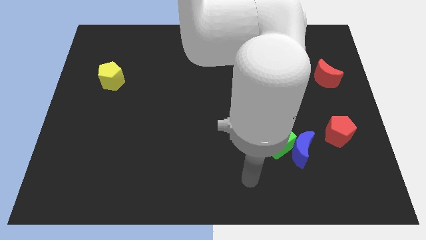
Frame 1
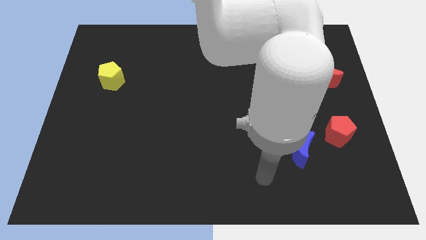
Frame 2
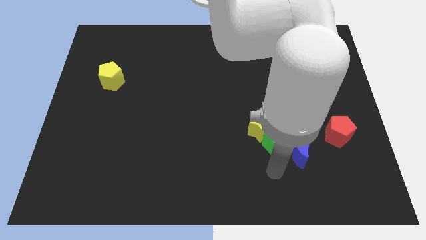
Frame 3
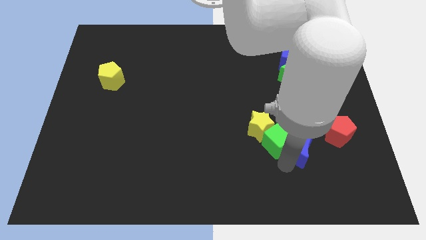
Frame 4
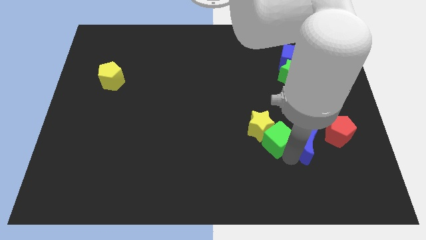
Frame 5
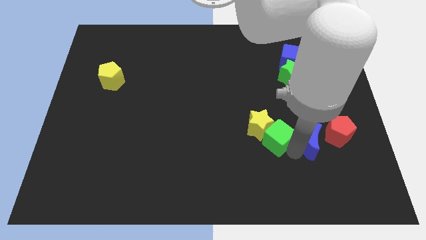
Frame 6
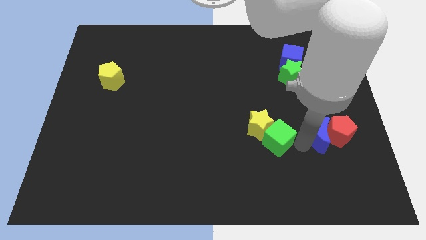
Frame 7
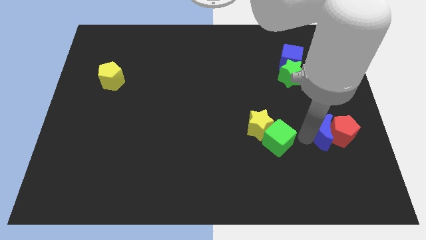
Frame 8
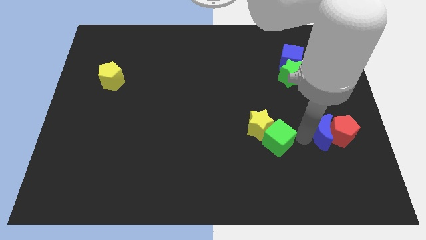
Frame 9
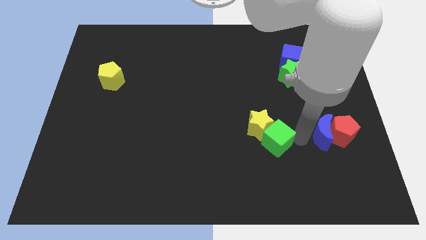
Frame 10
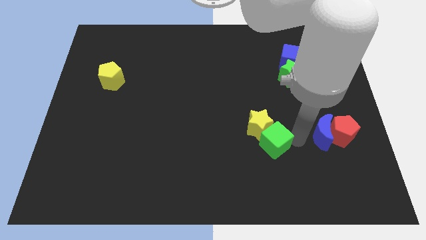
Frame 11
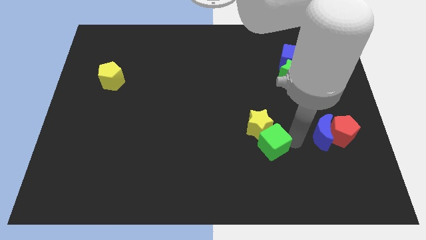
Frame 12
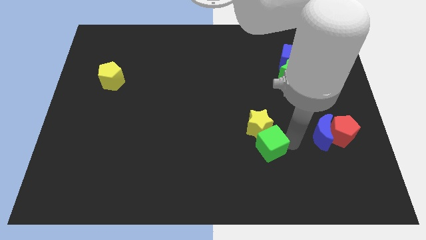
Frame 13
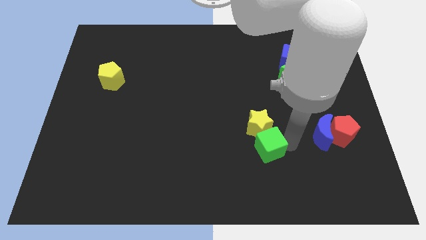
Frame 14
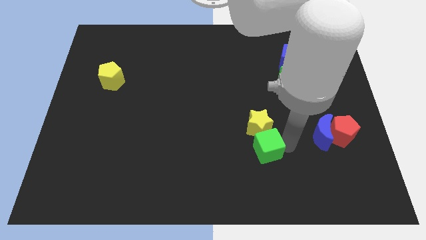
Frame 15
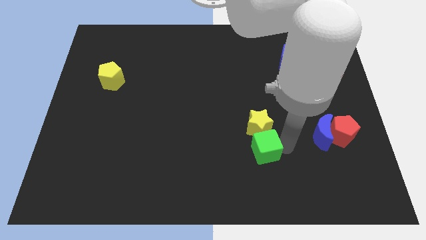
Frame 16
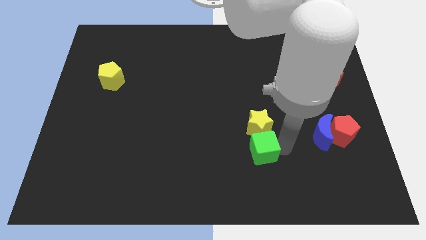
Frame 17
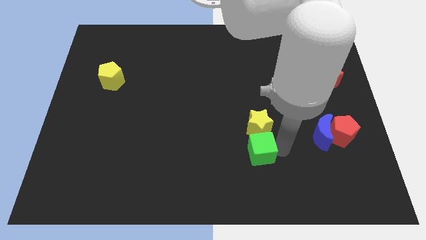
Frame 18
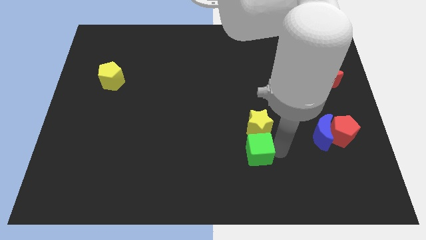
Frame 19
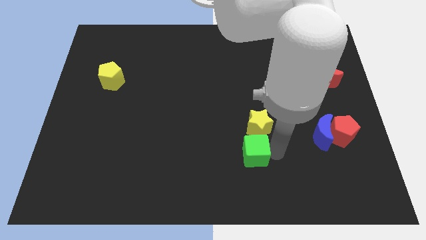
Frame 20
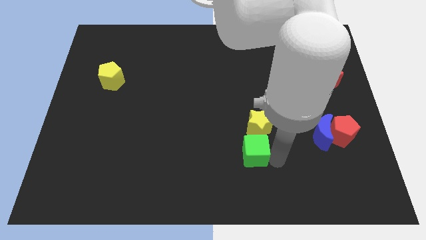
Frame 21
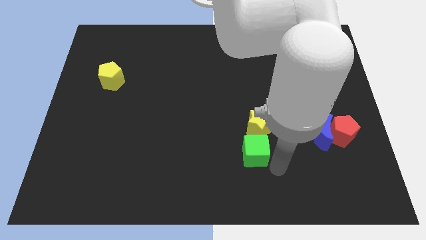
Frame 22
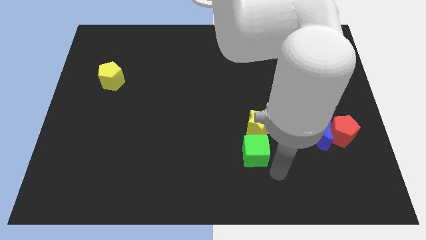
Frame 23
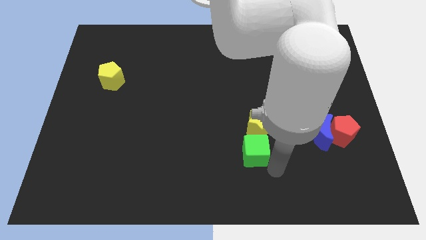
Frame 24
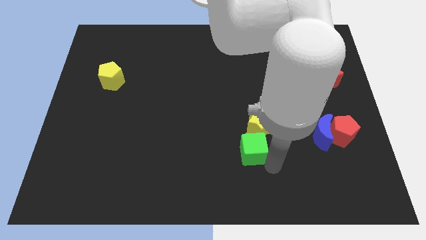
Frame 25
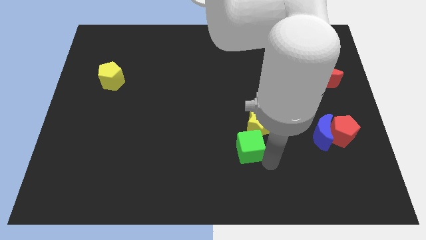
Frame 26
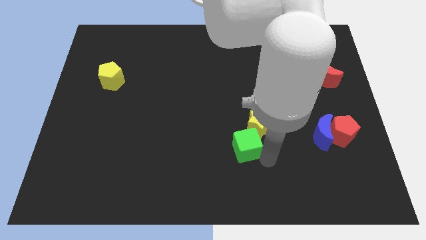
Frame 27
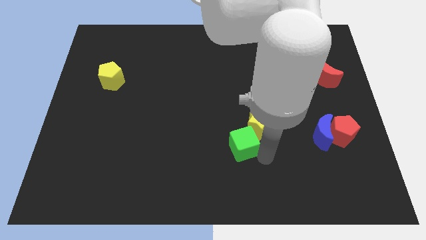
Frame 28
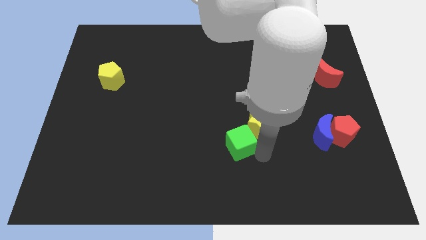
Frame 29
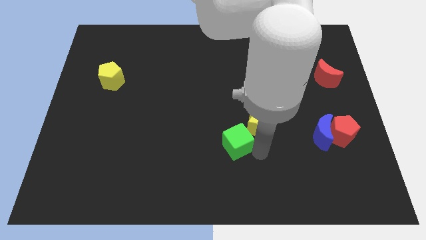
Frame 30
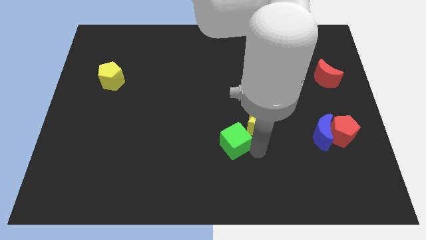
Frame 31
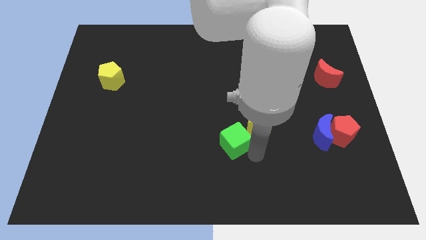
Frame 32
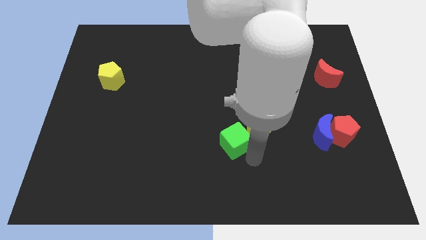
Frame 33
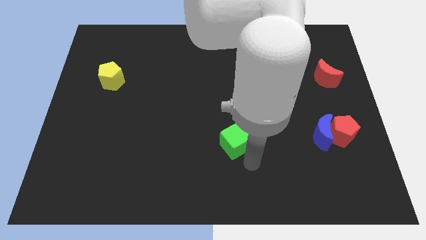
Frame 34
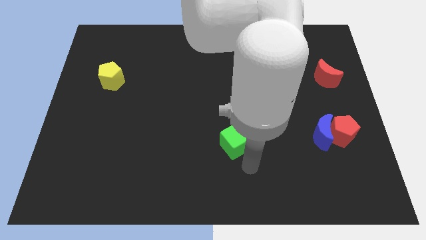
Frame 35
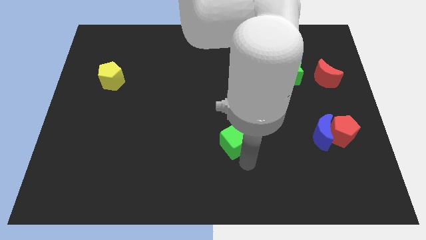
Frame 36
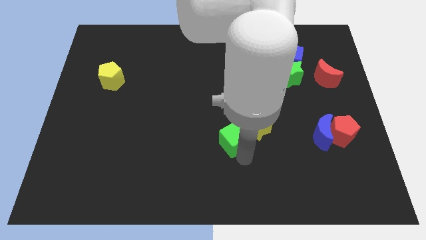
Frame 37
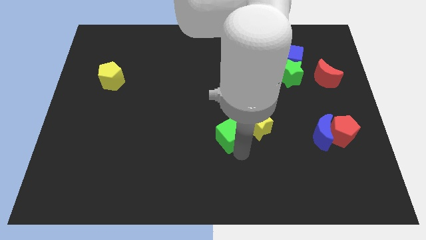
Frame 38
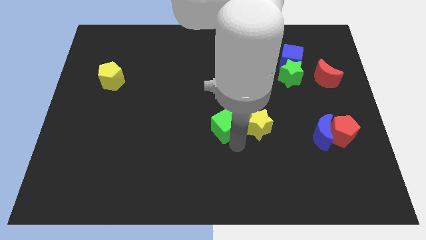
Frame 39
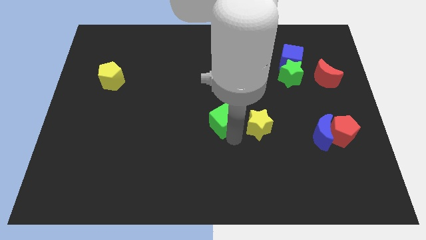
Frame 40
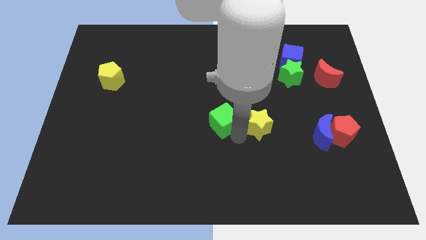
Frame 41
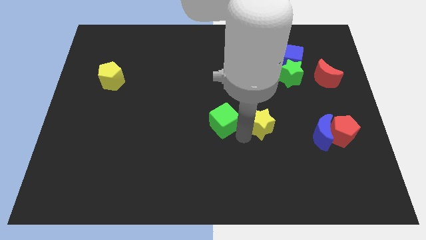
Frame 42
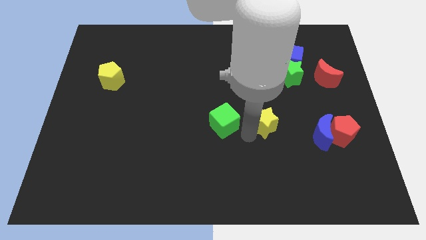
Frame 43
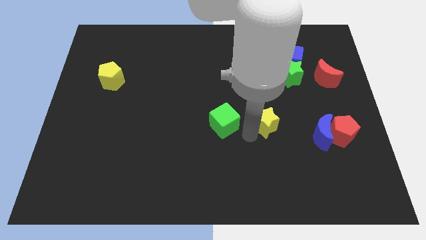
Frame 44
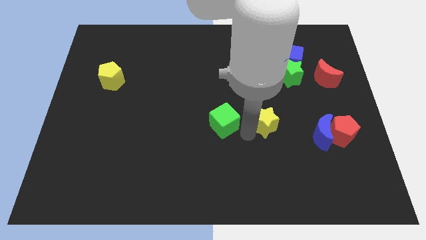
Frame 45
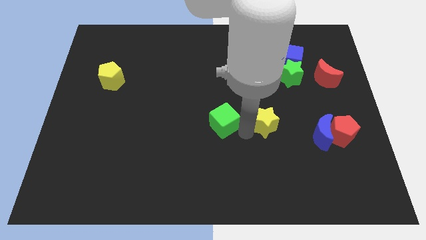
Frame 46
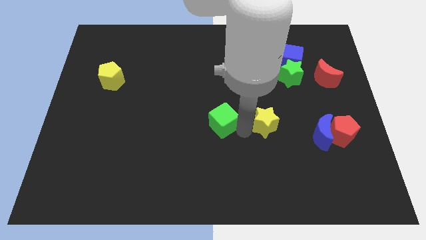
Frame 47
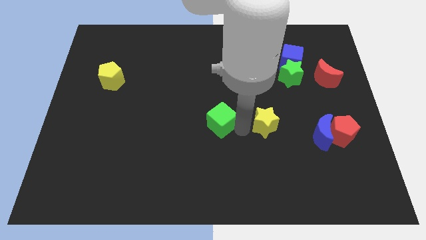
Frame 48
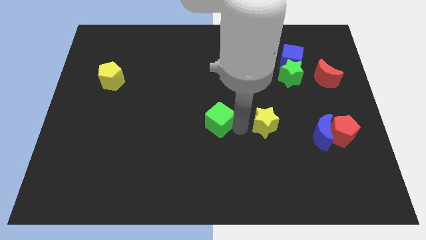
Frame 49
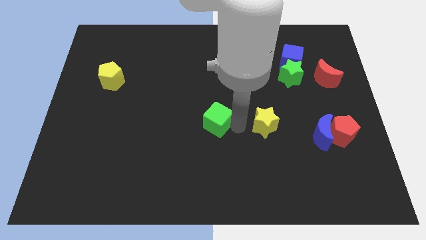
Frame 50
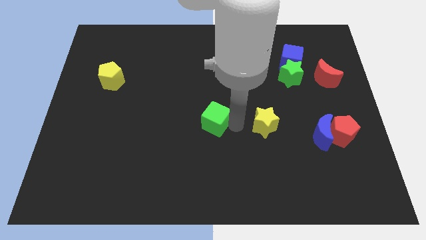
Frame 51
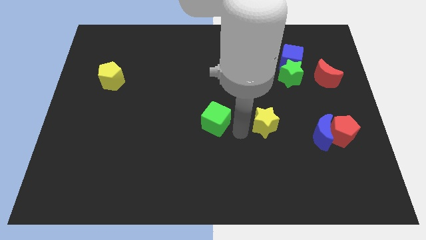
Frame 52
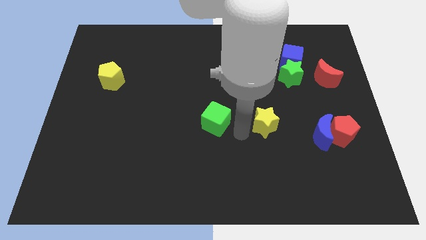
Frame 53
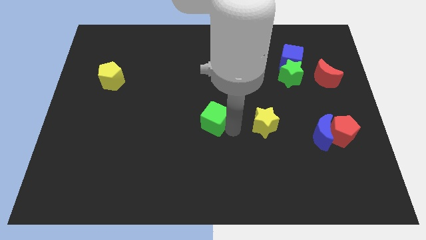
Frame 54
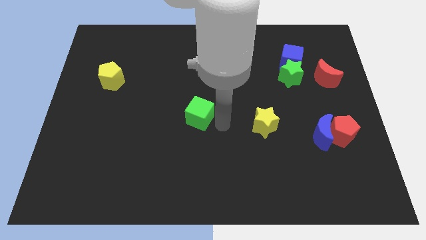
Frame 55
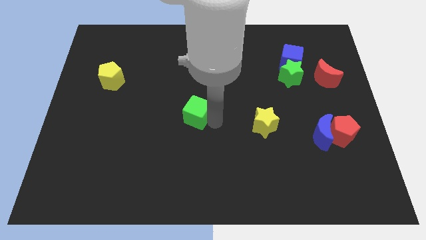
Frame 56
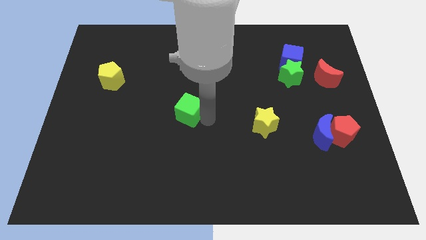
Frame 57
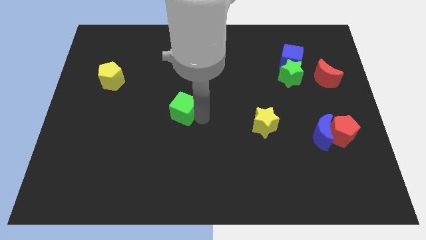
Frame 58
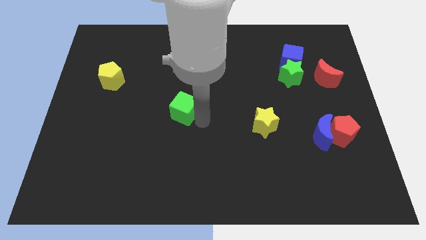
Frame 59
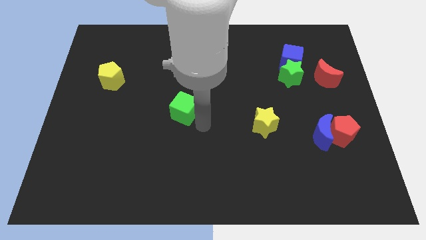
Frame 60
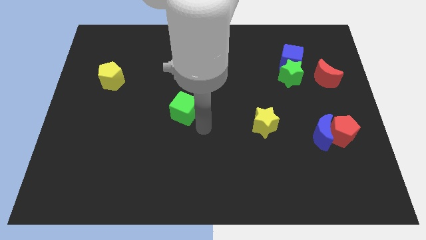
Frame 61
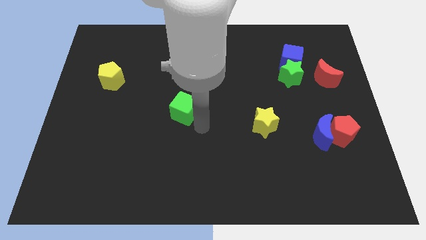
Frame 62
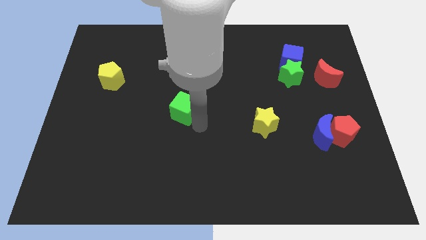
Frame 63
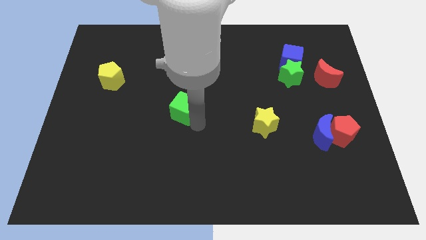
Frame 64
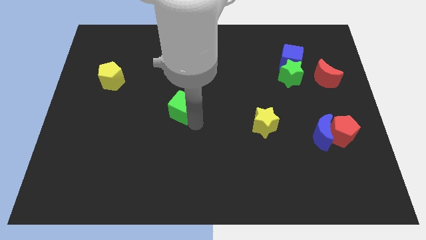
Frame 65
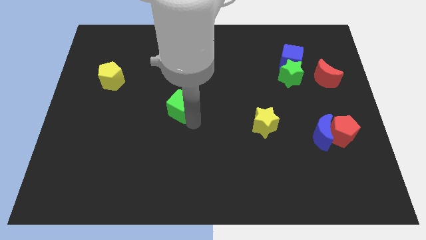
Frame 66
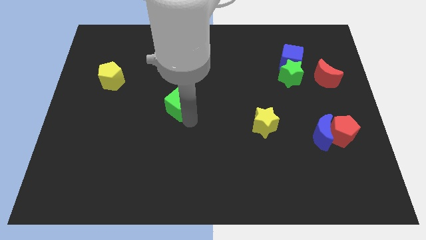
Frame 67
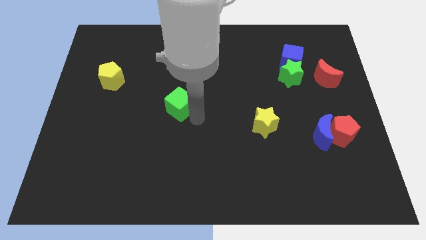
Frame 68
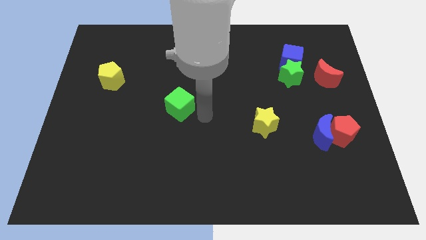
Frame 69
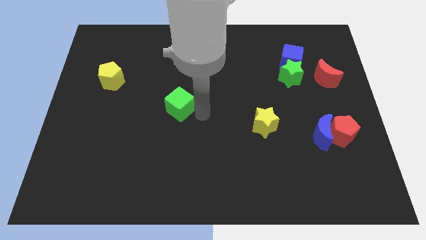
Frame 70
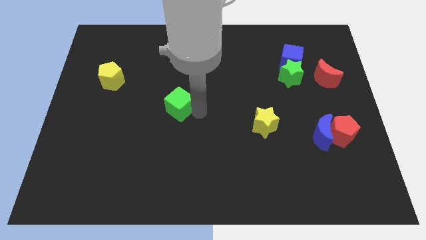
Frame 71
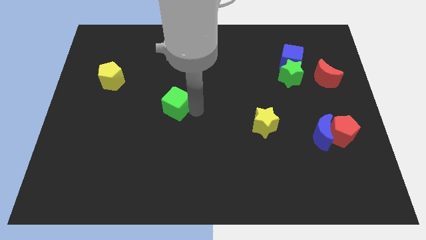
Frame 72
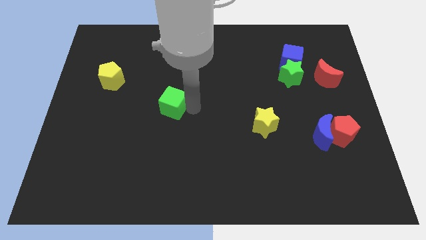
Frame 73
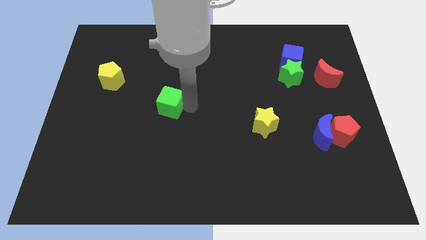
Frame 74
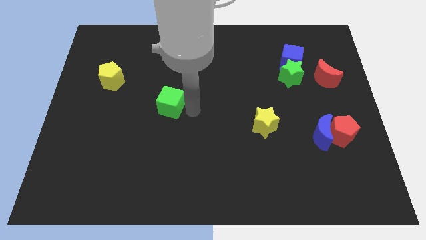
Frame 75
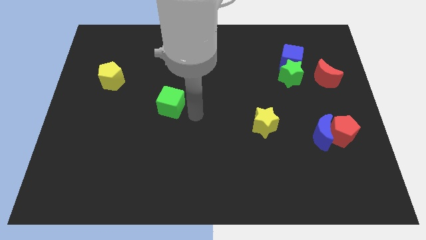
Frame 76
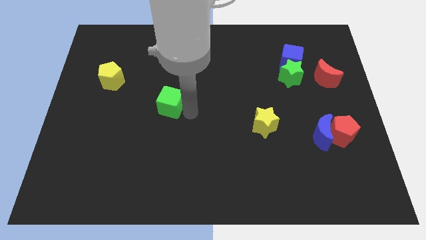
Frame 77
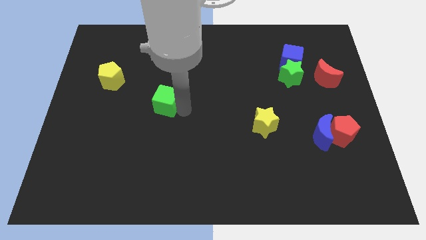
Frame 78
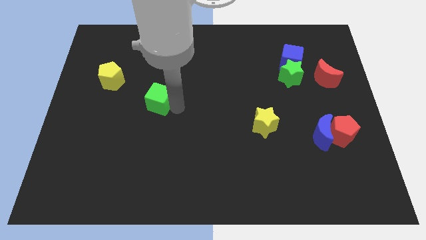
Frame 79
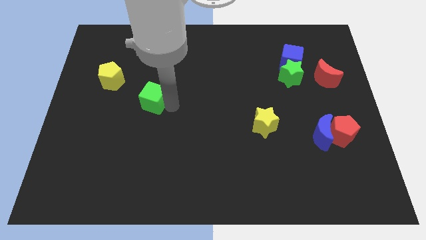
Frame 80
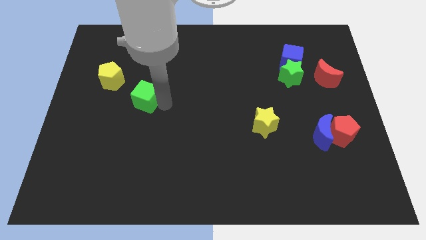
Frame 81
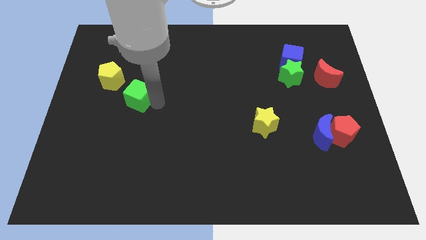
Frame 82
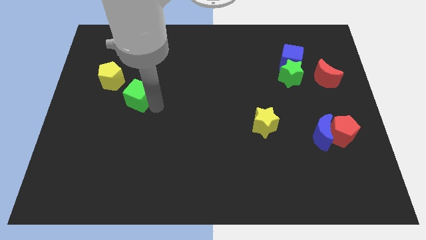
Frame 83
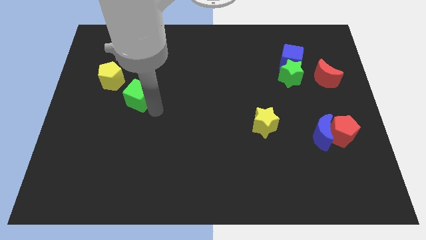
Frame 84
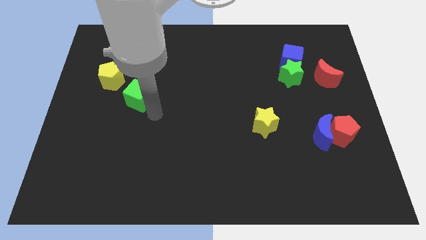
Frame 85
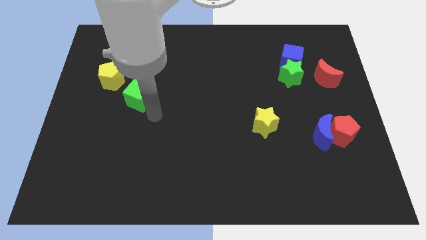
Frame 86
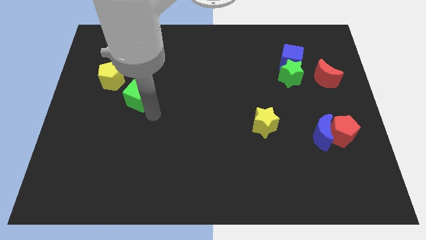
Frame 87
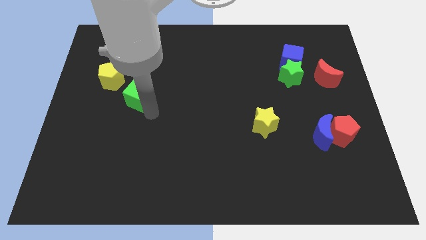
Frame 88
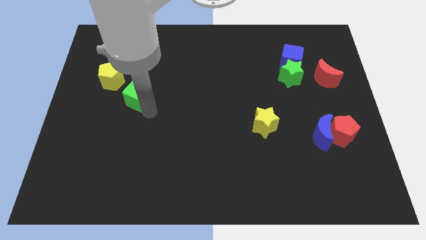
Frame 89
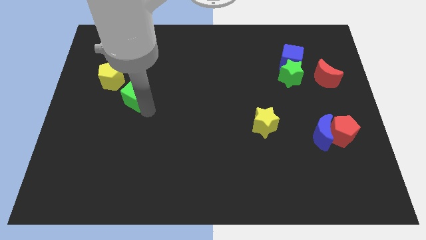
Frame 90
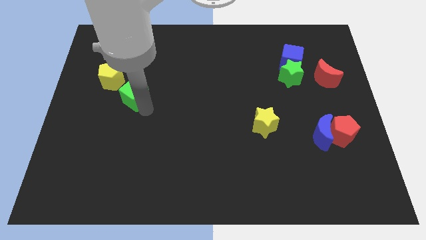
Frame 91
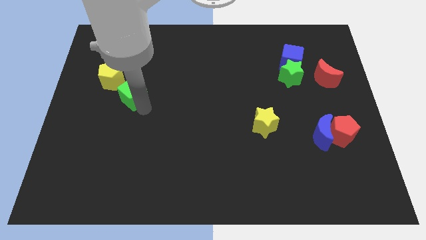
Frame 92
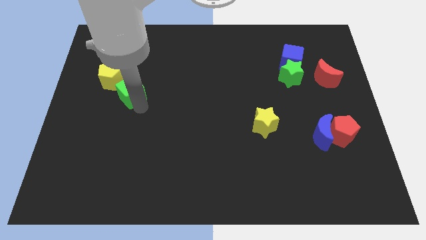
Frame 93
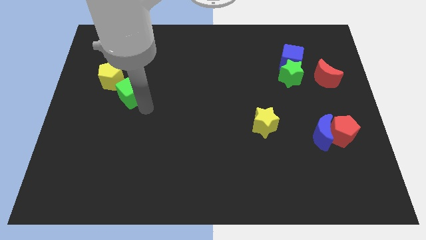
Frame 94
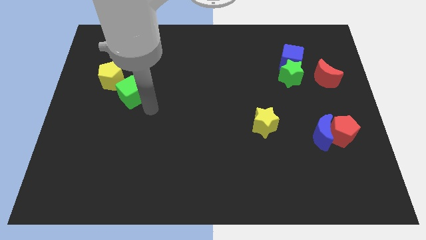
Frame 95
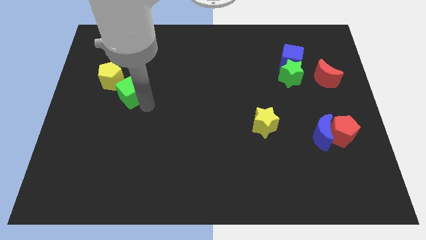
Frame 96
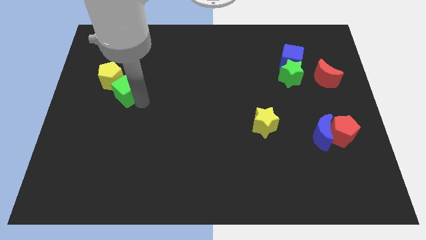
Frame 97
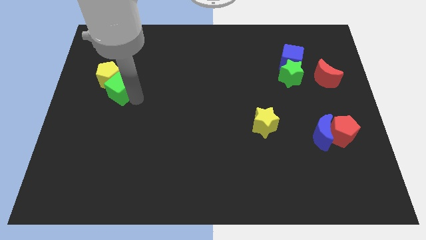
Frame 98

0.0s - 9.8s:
push the green cube next to the yellow pentagon
